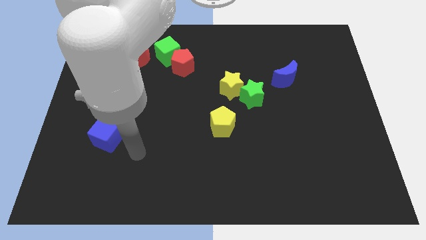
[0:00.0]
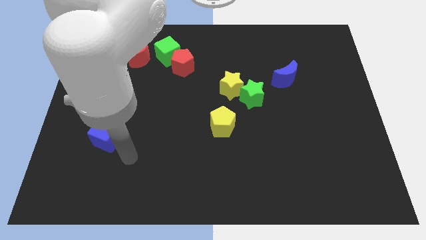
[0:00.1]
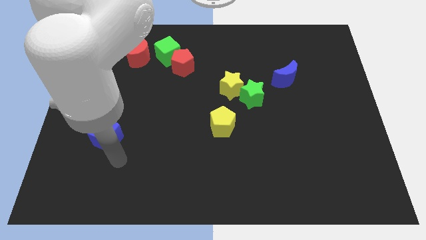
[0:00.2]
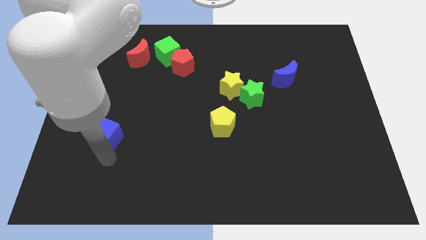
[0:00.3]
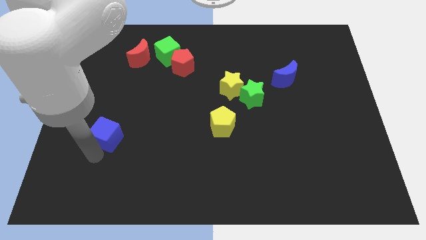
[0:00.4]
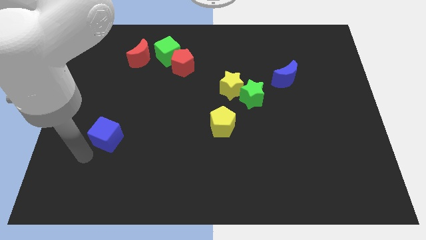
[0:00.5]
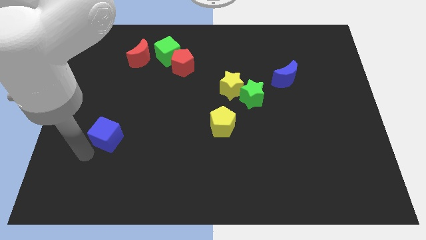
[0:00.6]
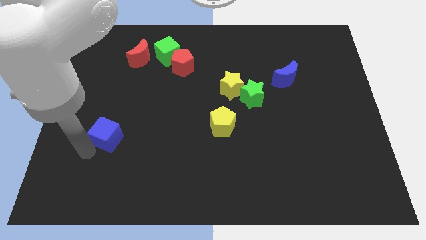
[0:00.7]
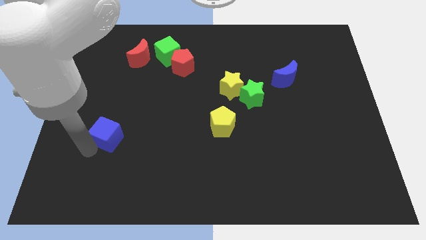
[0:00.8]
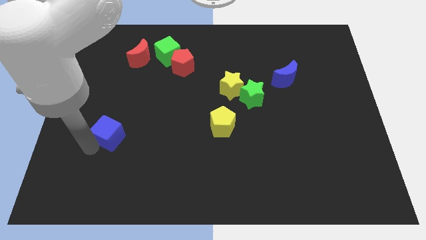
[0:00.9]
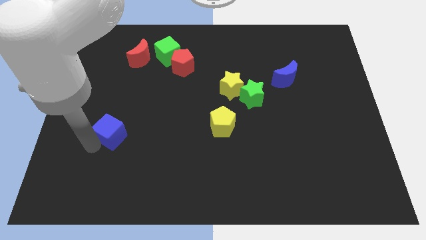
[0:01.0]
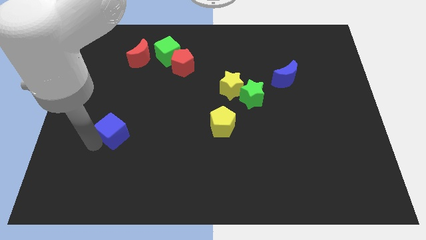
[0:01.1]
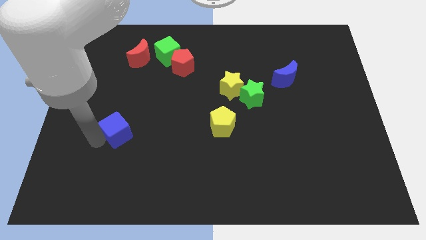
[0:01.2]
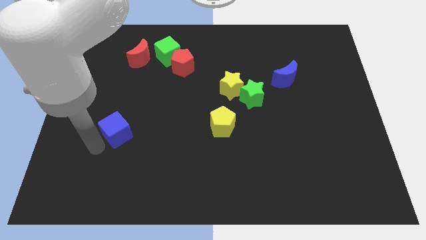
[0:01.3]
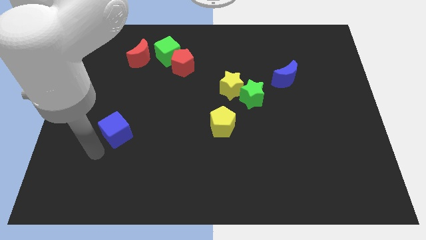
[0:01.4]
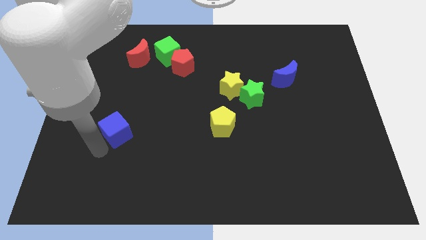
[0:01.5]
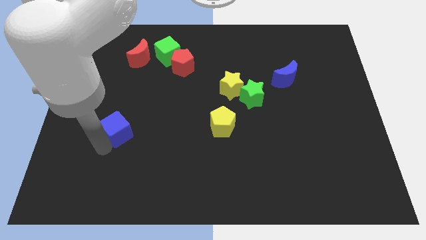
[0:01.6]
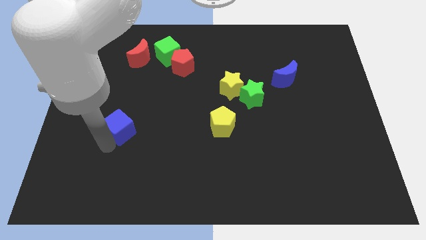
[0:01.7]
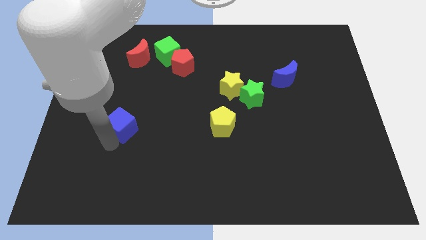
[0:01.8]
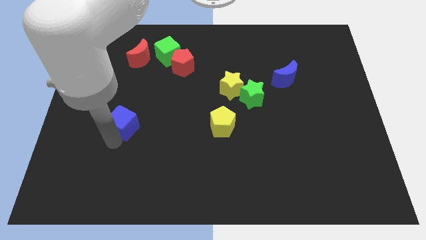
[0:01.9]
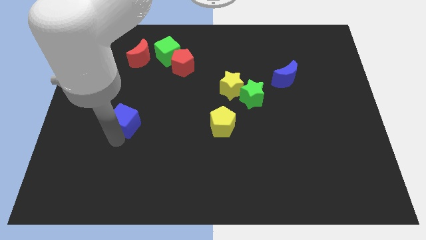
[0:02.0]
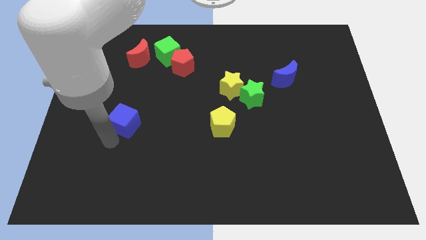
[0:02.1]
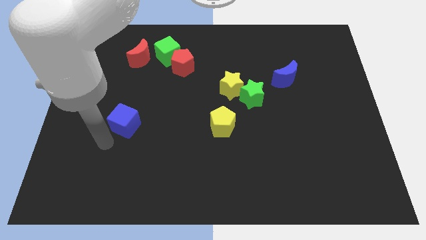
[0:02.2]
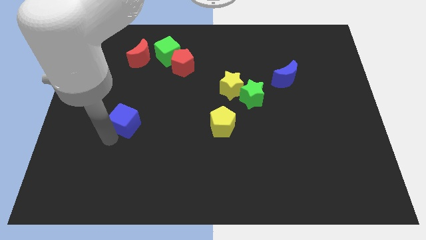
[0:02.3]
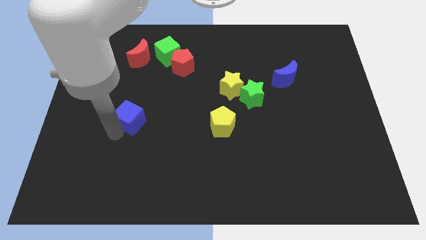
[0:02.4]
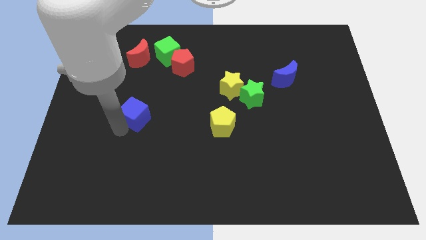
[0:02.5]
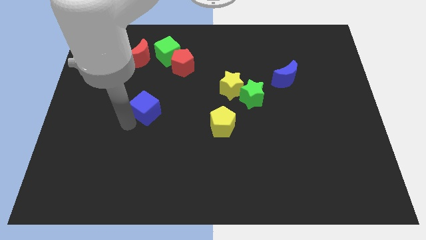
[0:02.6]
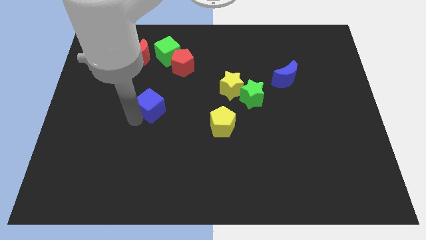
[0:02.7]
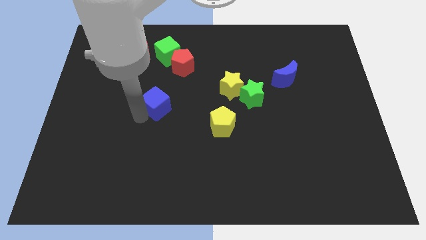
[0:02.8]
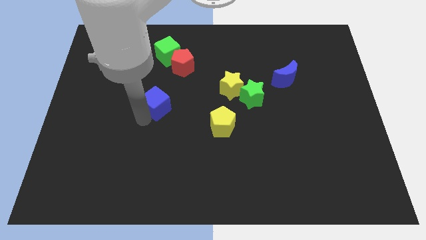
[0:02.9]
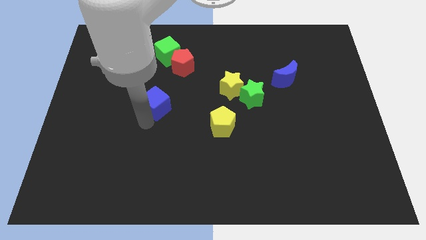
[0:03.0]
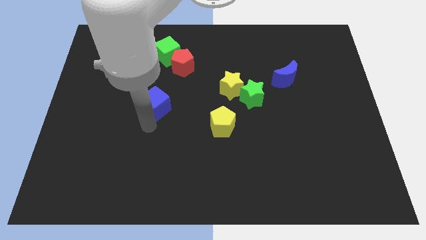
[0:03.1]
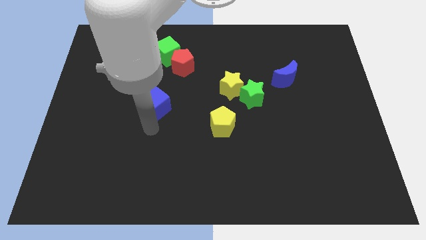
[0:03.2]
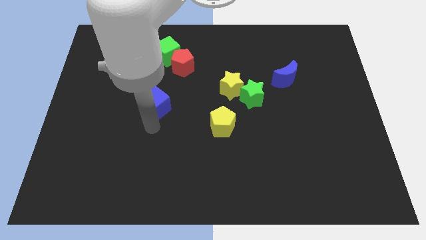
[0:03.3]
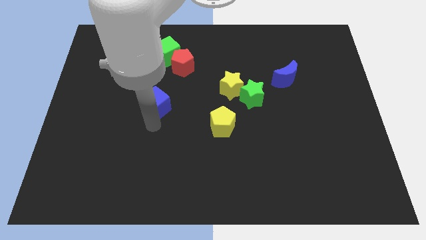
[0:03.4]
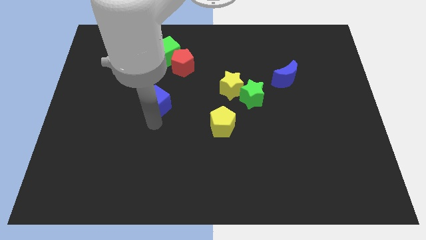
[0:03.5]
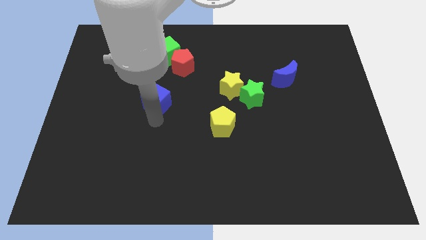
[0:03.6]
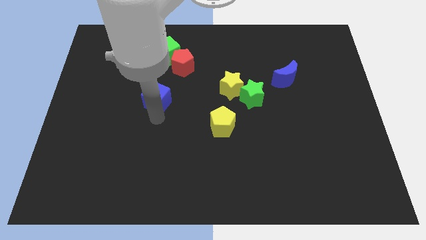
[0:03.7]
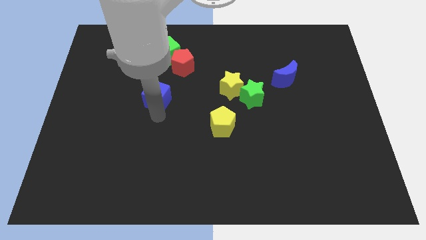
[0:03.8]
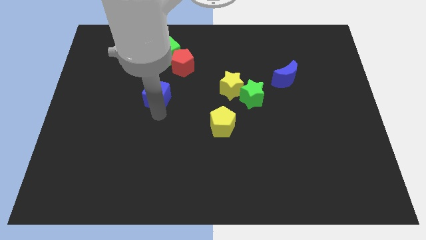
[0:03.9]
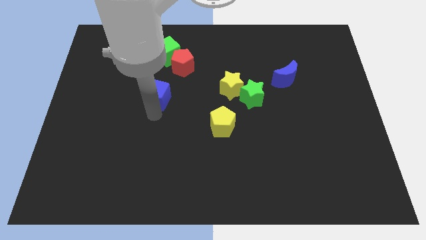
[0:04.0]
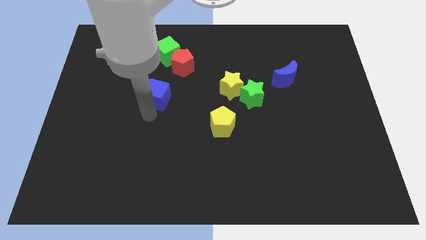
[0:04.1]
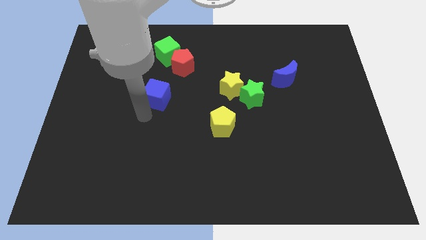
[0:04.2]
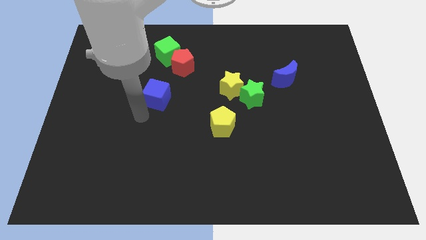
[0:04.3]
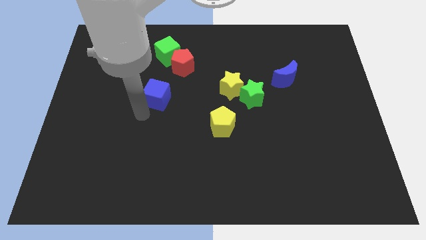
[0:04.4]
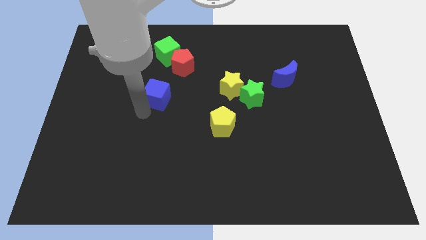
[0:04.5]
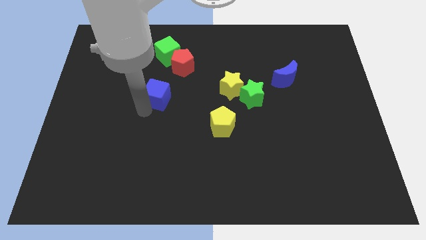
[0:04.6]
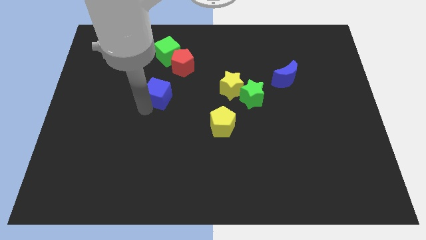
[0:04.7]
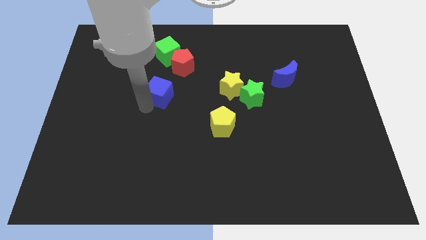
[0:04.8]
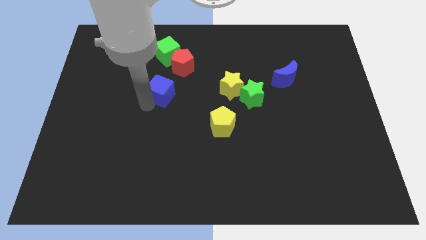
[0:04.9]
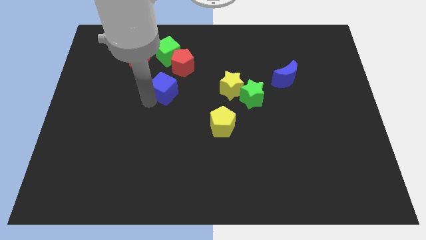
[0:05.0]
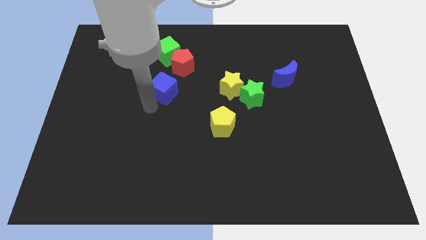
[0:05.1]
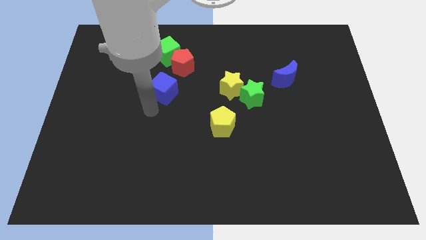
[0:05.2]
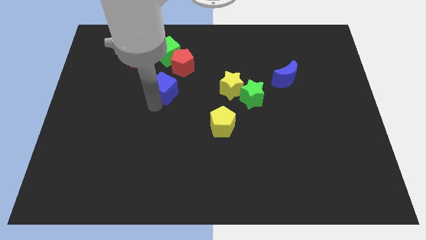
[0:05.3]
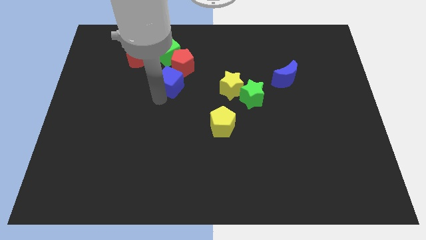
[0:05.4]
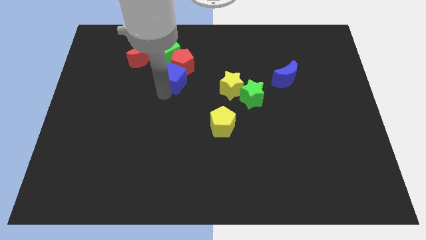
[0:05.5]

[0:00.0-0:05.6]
move the blue cube towards the red pentagon

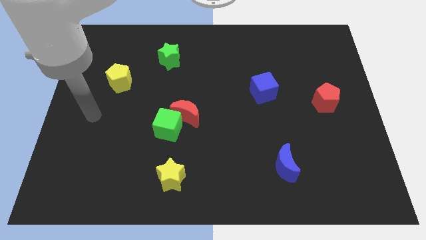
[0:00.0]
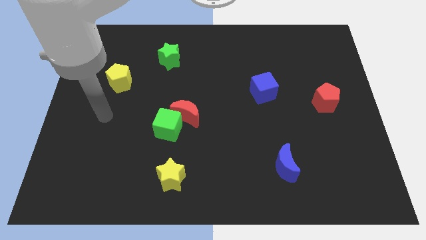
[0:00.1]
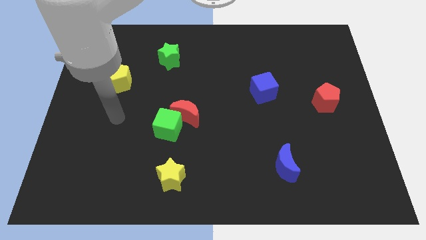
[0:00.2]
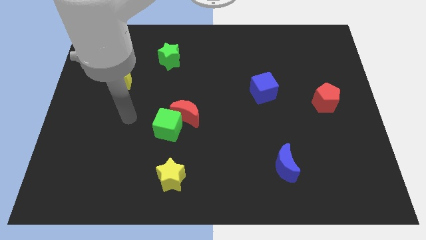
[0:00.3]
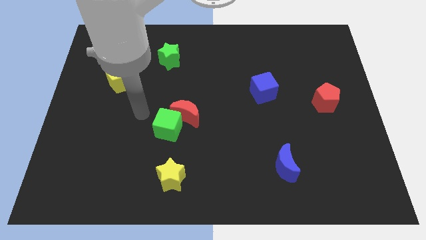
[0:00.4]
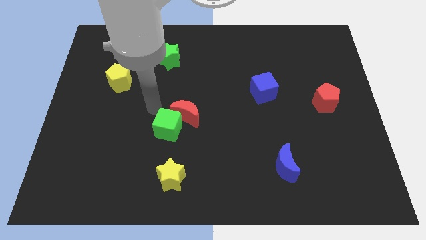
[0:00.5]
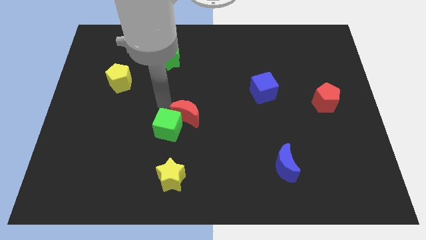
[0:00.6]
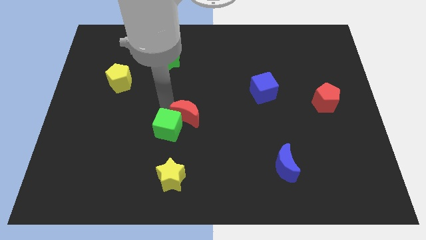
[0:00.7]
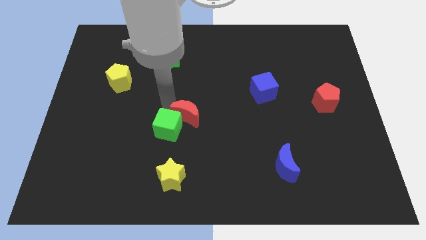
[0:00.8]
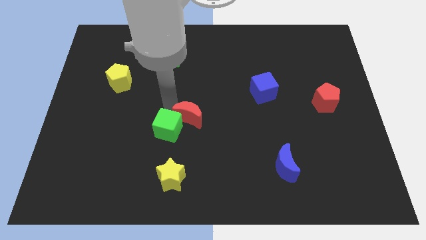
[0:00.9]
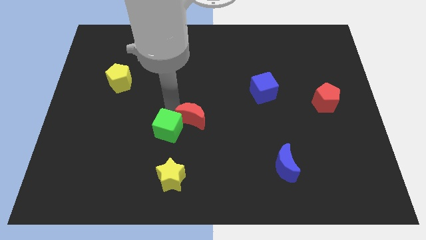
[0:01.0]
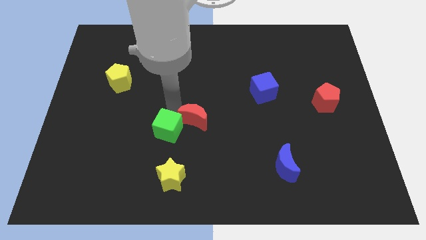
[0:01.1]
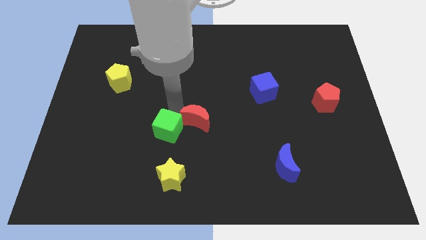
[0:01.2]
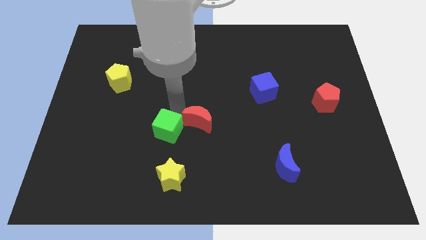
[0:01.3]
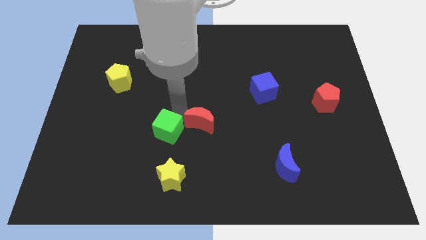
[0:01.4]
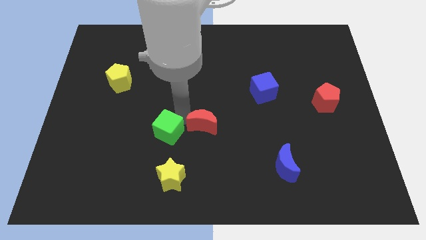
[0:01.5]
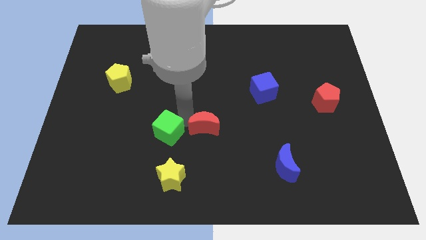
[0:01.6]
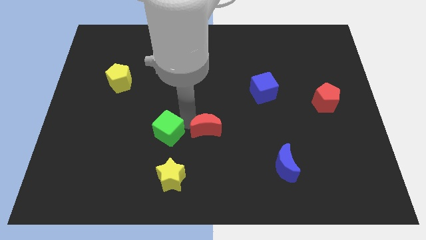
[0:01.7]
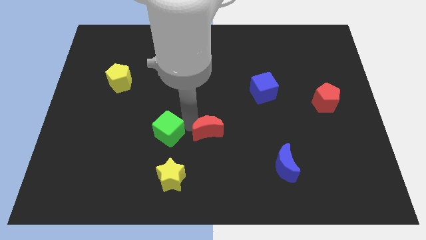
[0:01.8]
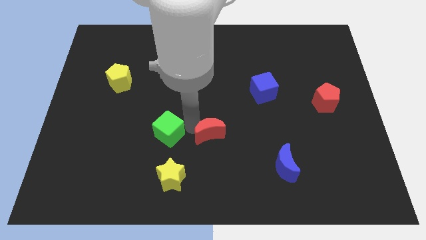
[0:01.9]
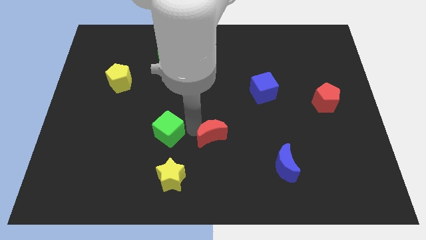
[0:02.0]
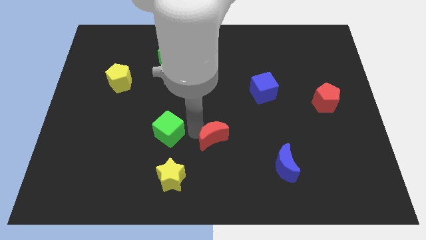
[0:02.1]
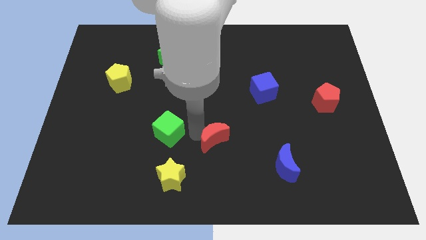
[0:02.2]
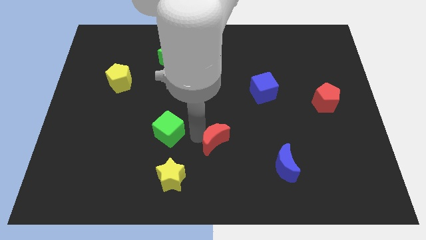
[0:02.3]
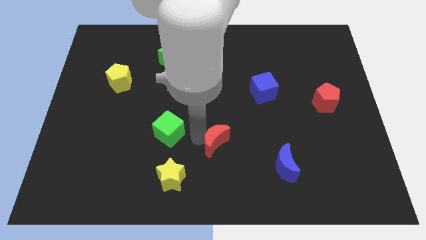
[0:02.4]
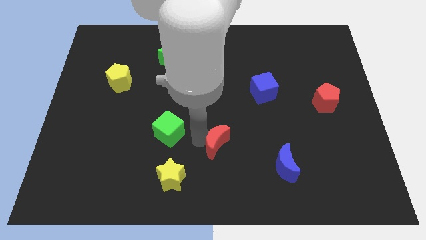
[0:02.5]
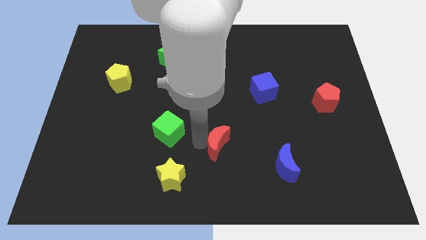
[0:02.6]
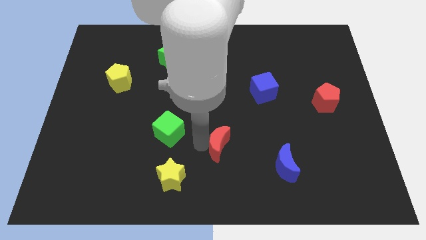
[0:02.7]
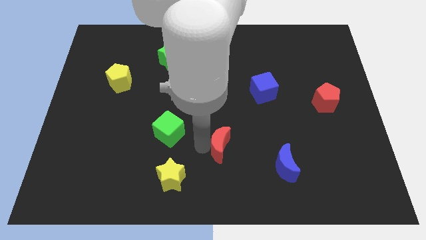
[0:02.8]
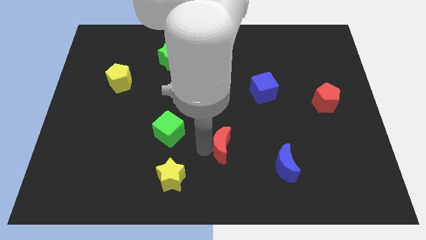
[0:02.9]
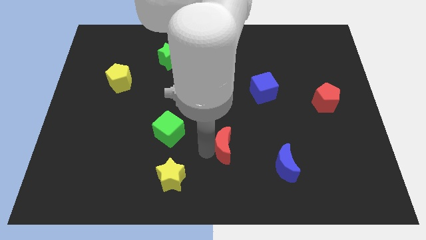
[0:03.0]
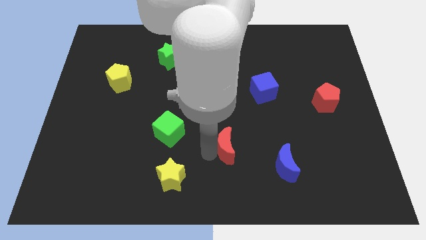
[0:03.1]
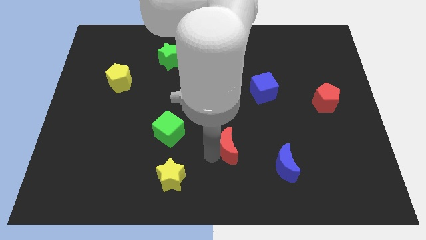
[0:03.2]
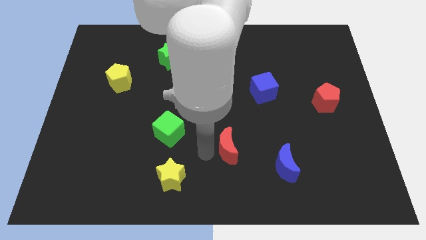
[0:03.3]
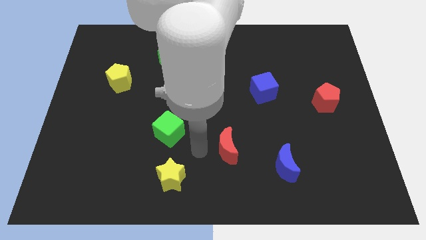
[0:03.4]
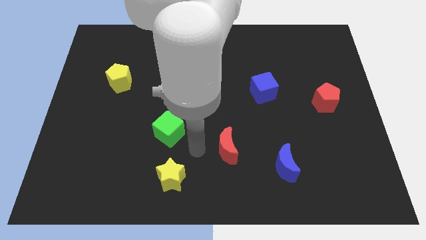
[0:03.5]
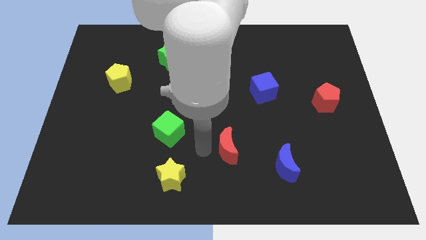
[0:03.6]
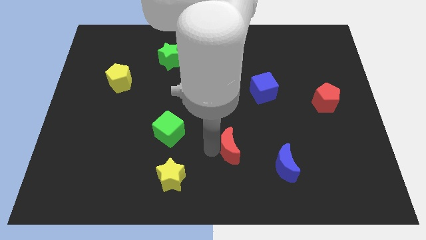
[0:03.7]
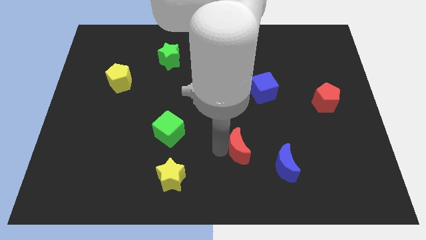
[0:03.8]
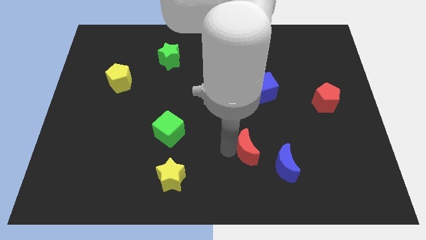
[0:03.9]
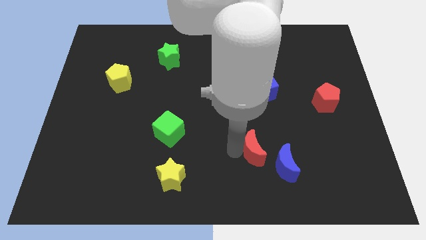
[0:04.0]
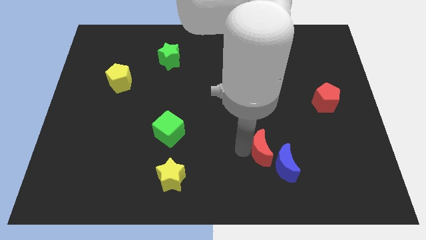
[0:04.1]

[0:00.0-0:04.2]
put the red moon close to the blue moon
